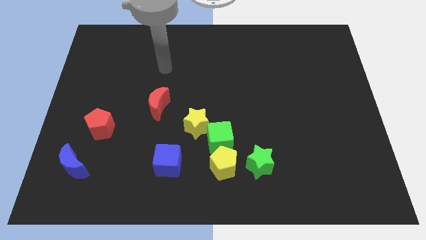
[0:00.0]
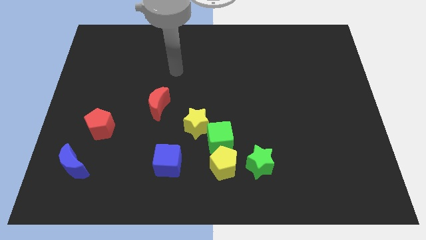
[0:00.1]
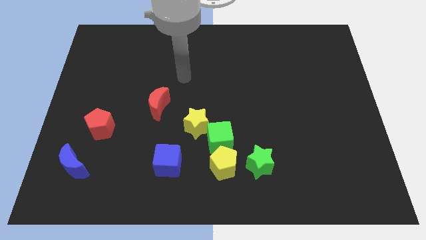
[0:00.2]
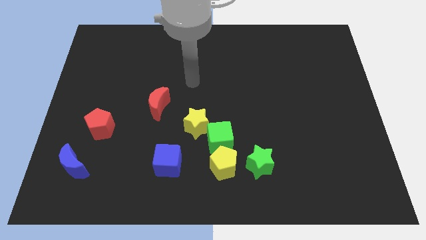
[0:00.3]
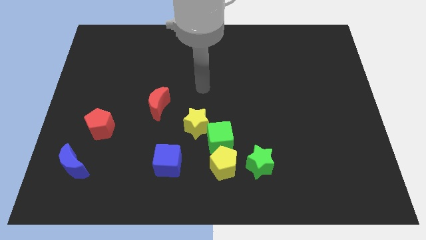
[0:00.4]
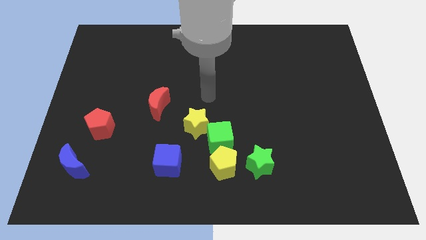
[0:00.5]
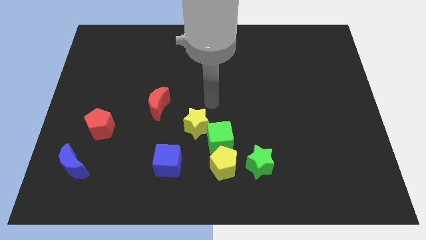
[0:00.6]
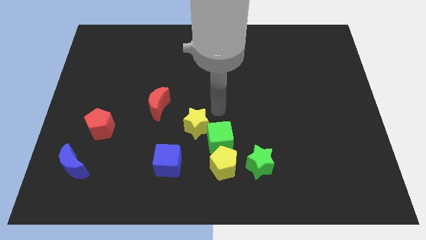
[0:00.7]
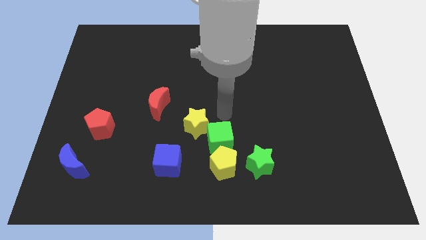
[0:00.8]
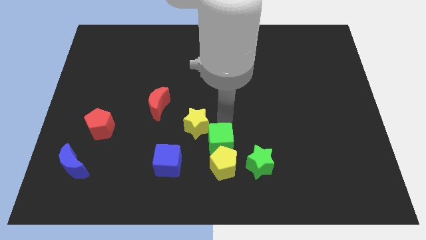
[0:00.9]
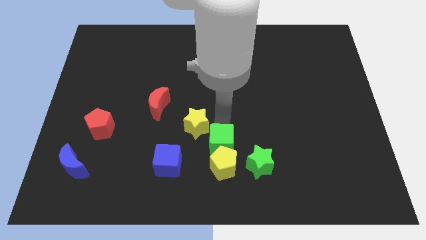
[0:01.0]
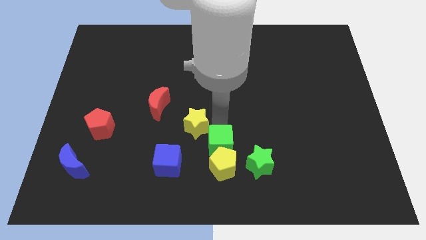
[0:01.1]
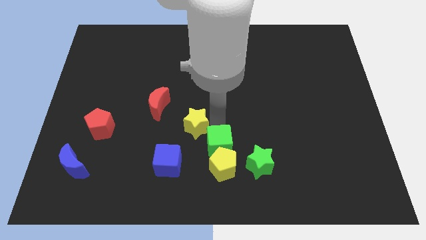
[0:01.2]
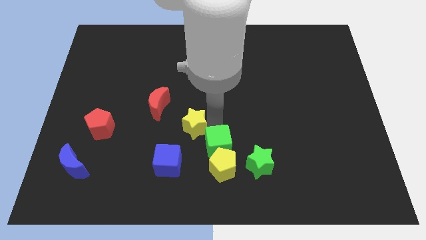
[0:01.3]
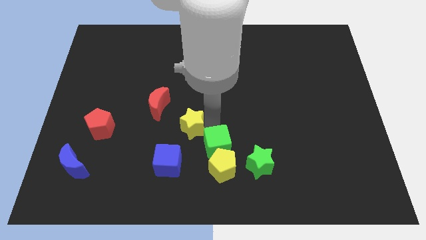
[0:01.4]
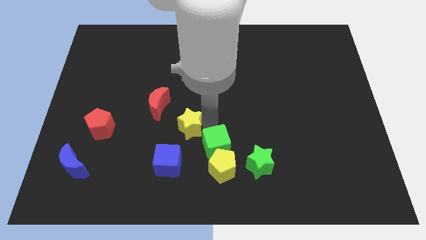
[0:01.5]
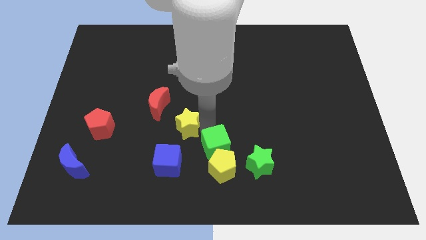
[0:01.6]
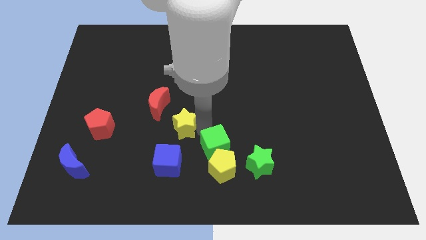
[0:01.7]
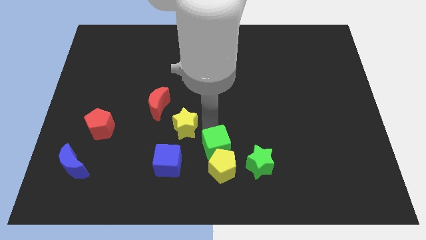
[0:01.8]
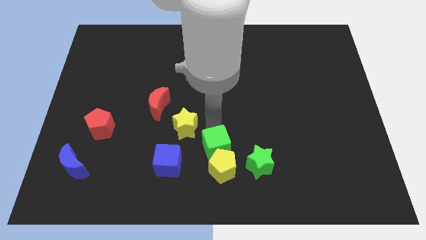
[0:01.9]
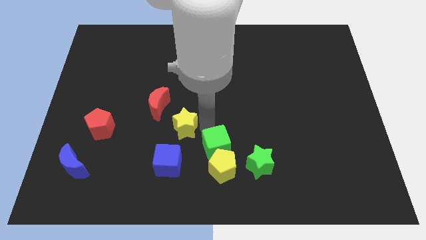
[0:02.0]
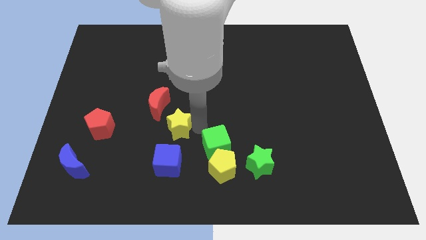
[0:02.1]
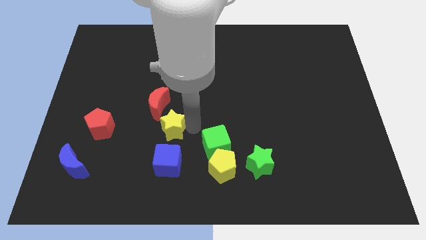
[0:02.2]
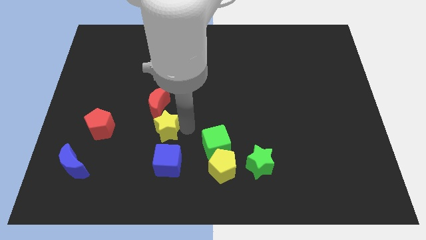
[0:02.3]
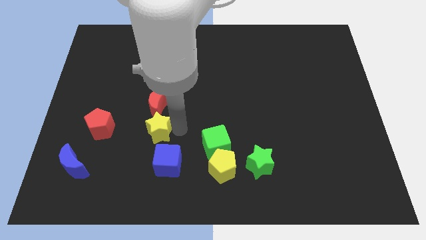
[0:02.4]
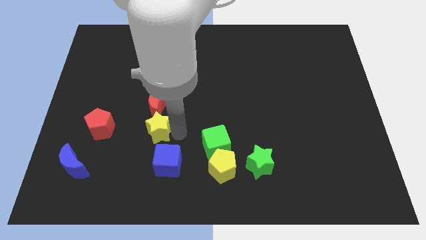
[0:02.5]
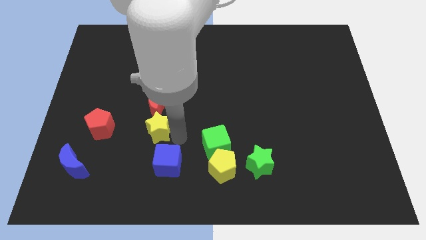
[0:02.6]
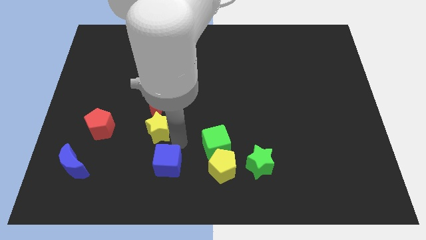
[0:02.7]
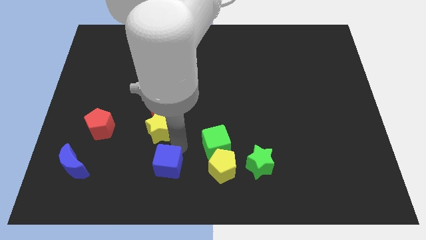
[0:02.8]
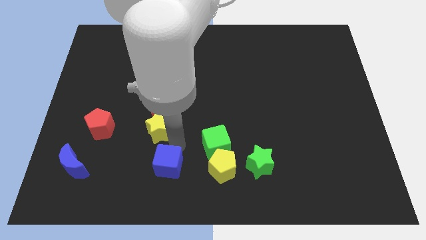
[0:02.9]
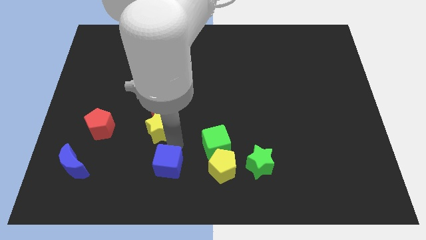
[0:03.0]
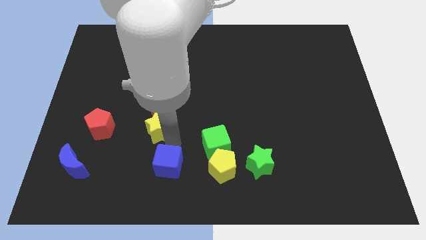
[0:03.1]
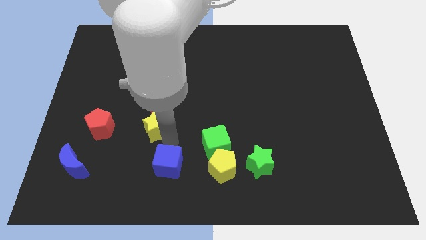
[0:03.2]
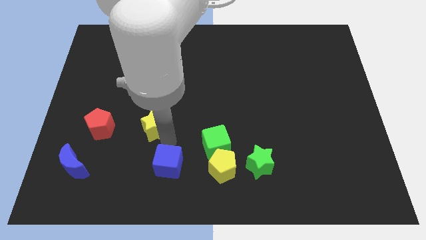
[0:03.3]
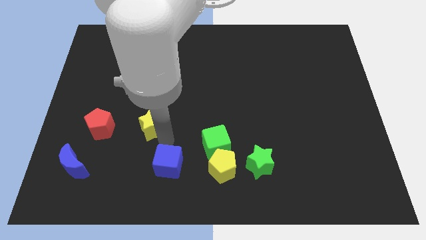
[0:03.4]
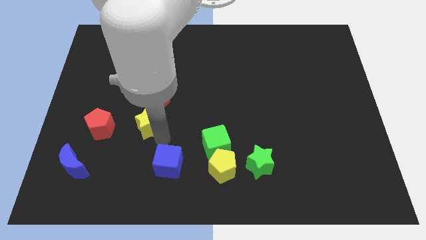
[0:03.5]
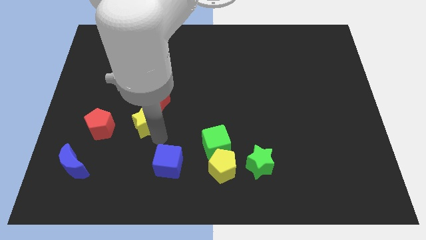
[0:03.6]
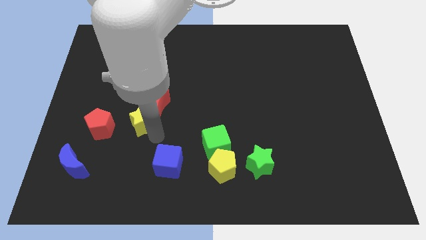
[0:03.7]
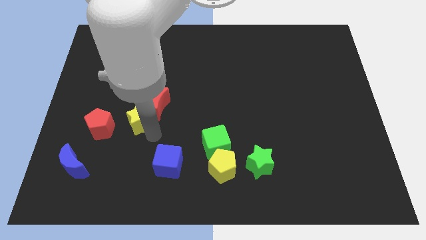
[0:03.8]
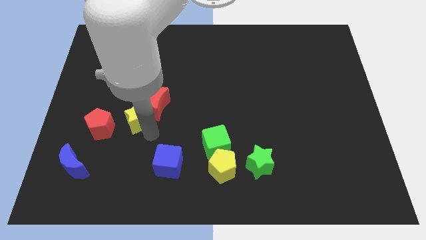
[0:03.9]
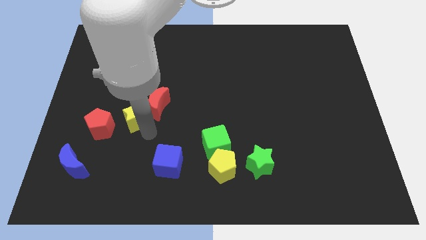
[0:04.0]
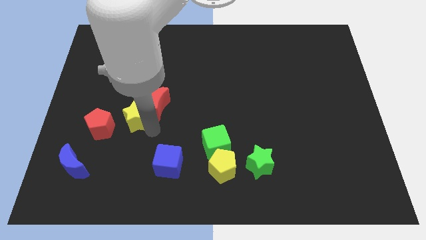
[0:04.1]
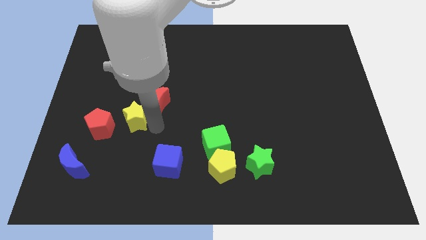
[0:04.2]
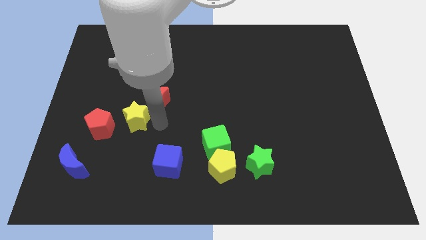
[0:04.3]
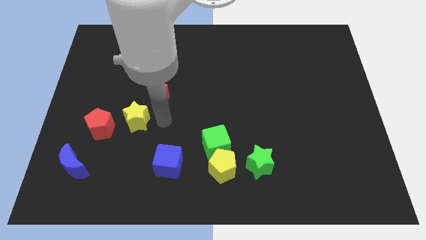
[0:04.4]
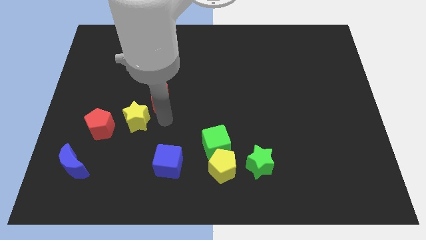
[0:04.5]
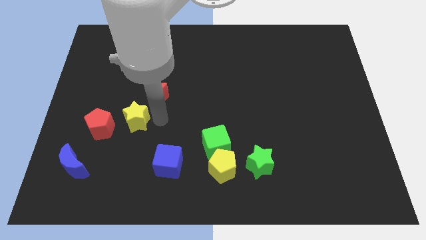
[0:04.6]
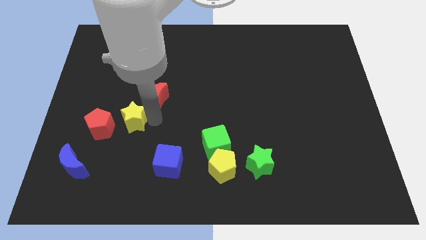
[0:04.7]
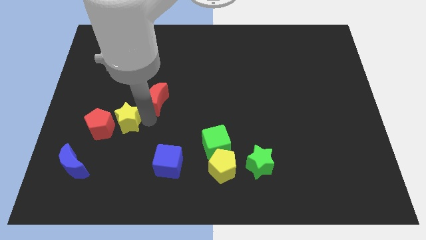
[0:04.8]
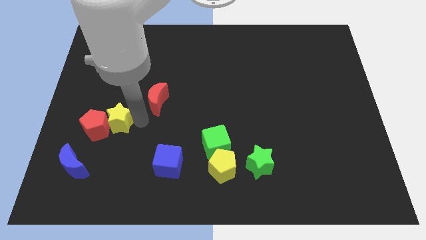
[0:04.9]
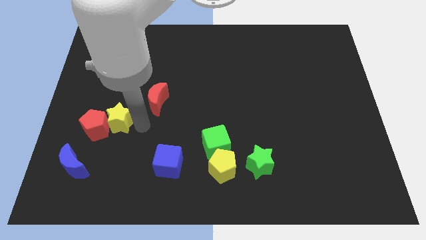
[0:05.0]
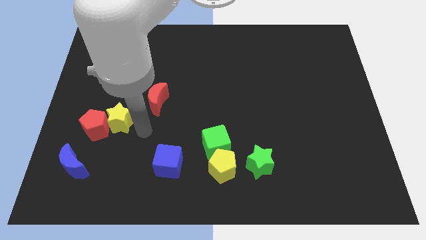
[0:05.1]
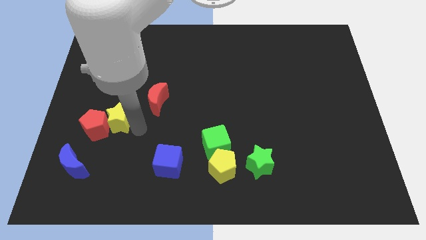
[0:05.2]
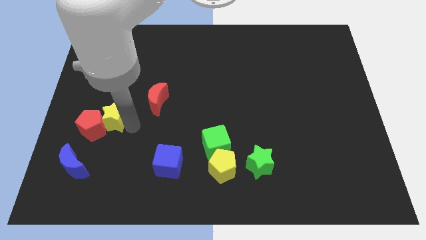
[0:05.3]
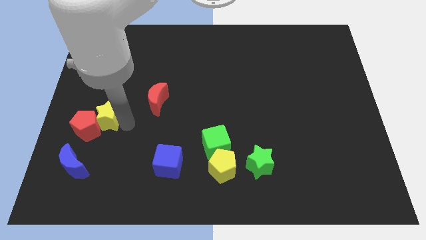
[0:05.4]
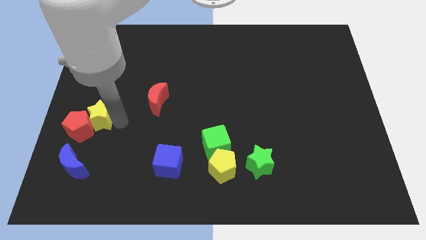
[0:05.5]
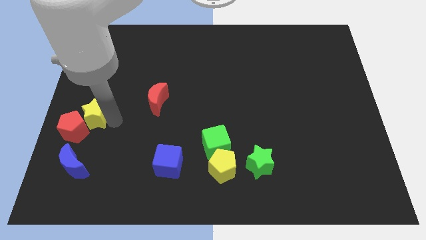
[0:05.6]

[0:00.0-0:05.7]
slide the yellow star to the left side
